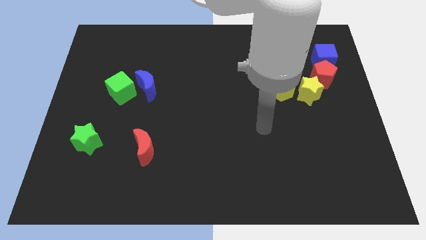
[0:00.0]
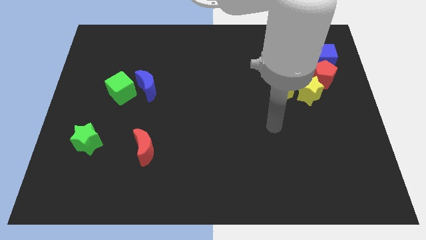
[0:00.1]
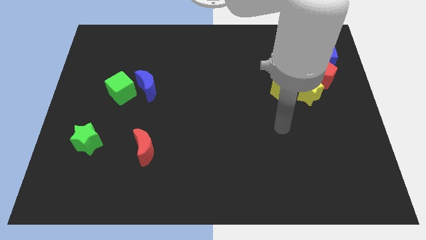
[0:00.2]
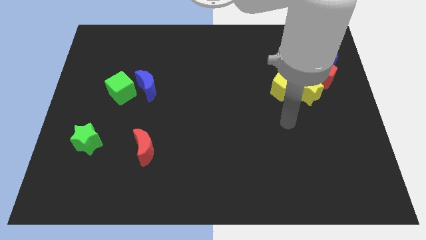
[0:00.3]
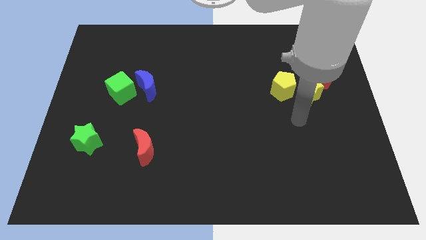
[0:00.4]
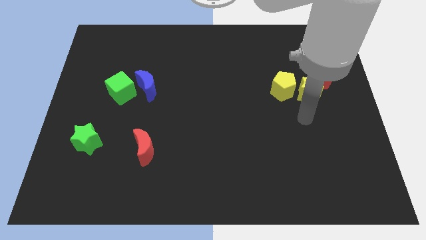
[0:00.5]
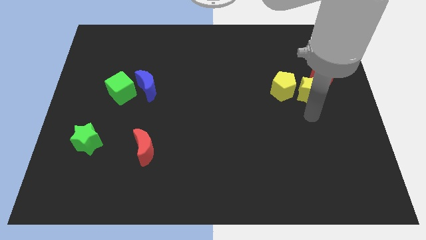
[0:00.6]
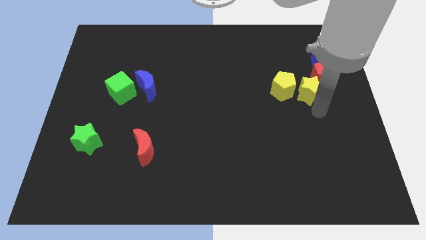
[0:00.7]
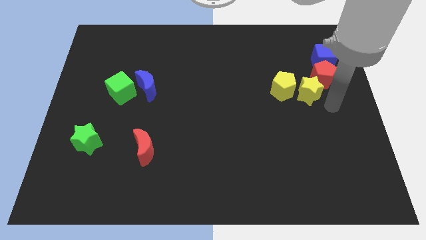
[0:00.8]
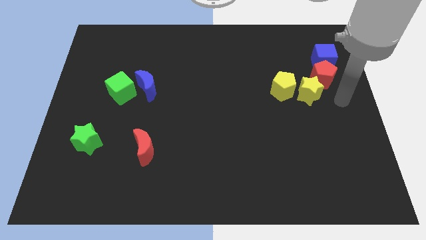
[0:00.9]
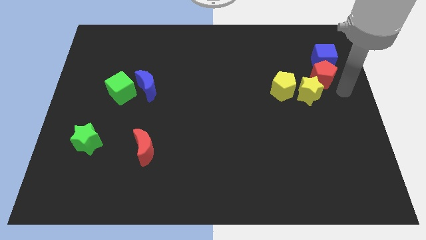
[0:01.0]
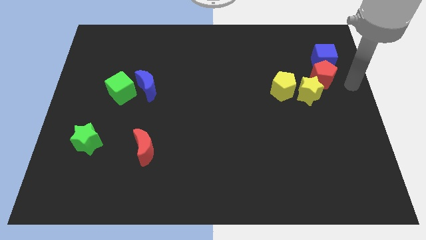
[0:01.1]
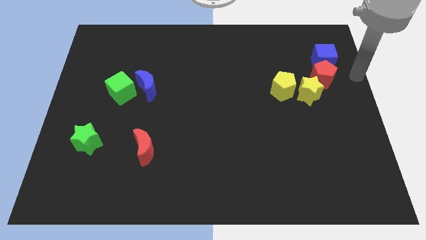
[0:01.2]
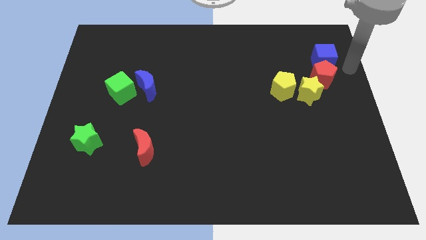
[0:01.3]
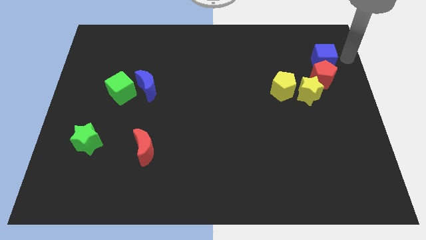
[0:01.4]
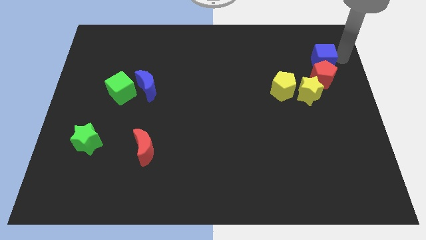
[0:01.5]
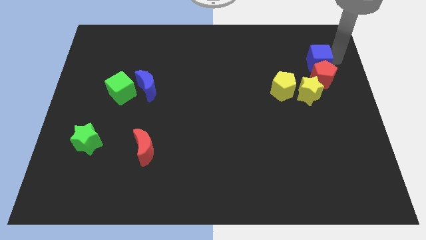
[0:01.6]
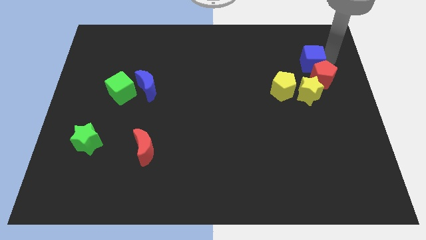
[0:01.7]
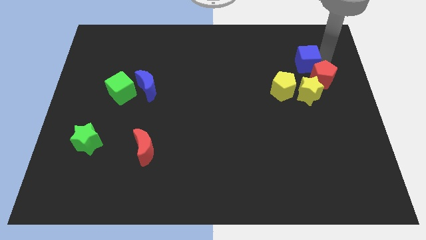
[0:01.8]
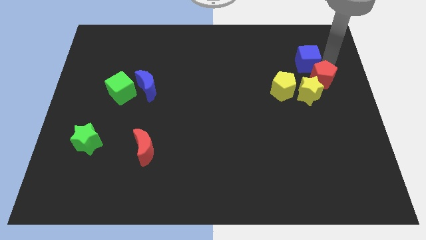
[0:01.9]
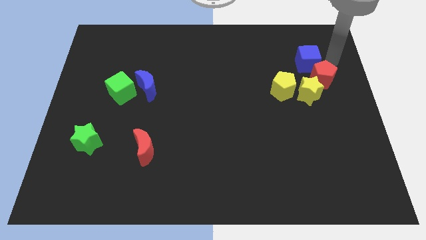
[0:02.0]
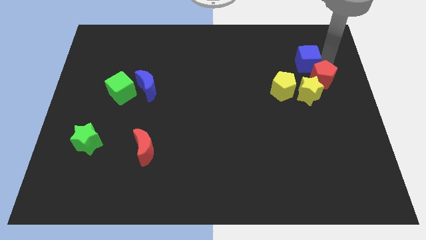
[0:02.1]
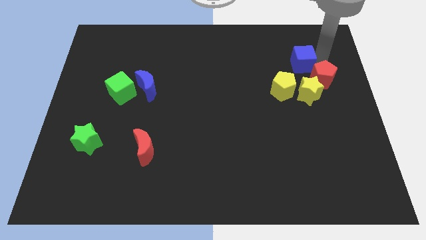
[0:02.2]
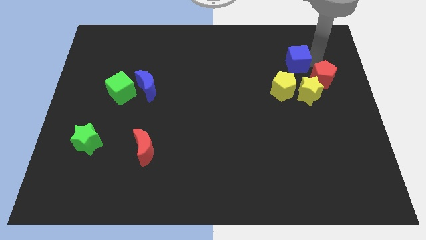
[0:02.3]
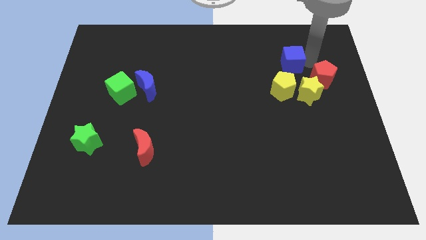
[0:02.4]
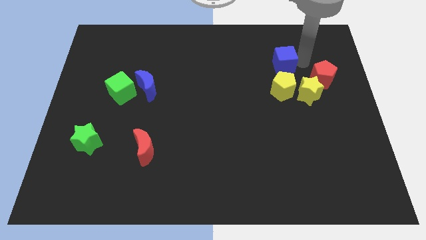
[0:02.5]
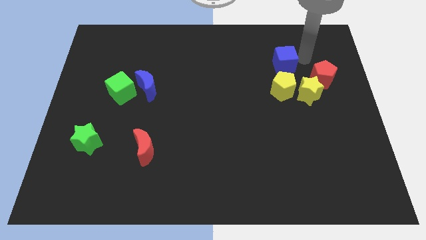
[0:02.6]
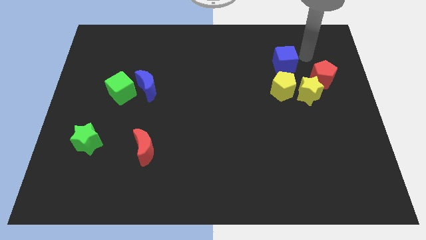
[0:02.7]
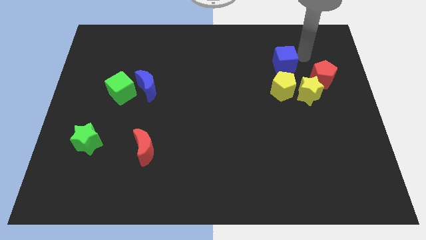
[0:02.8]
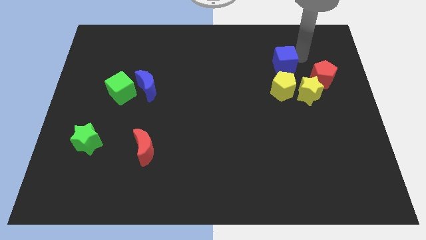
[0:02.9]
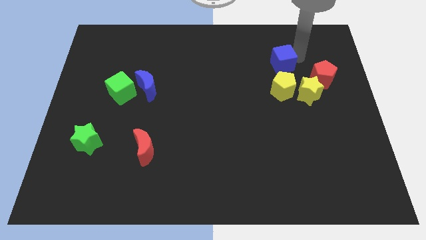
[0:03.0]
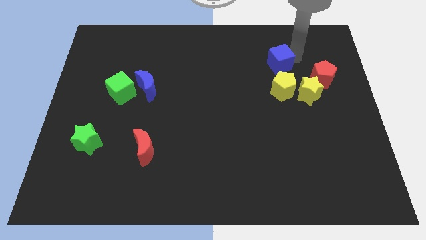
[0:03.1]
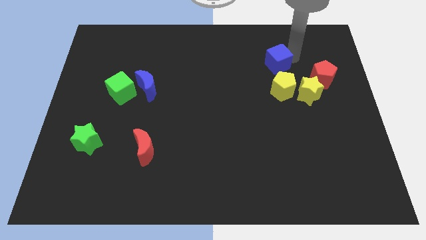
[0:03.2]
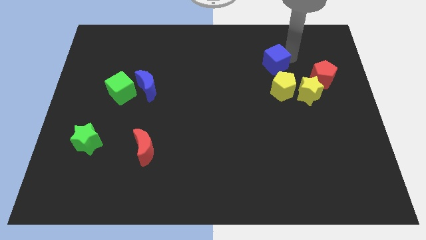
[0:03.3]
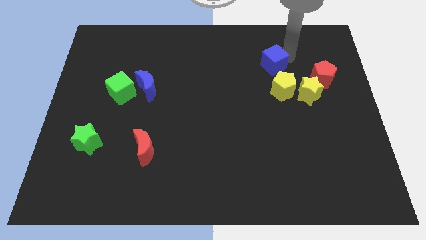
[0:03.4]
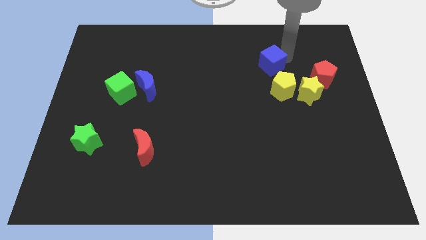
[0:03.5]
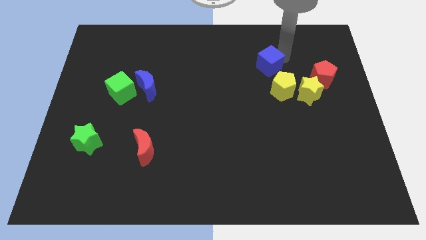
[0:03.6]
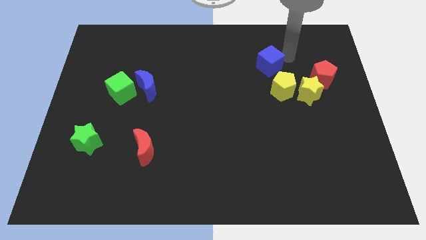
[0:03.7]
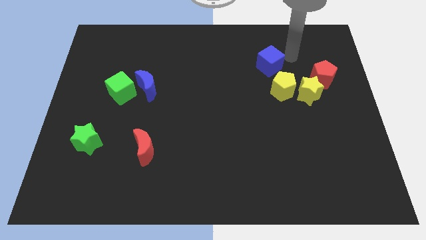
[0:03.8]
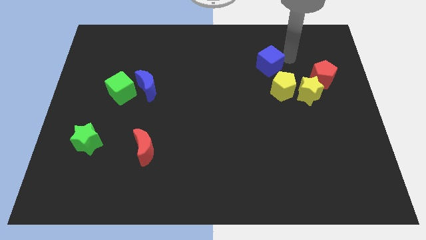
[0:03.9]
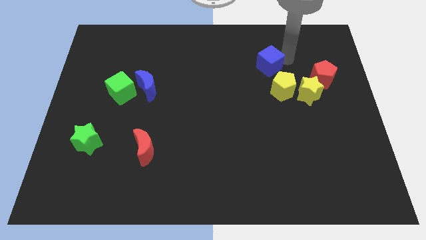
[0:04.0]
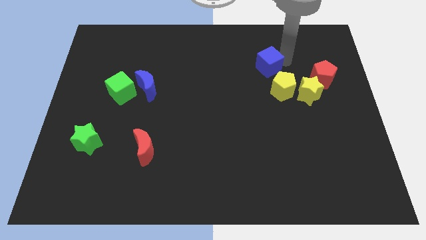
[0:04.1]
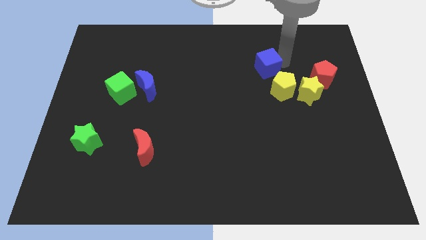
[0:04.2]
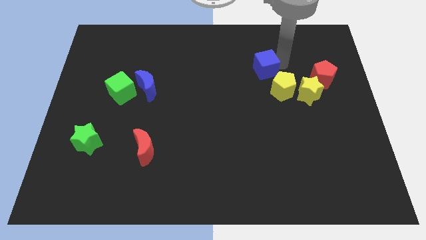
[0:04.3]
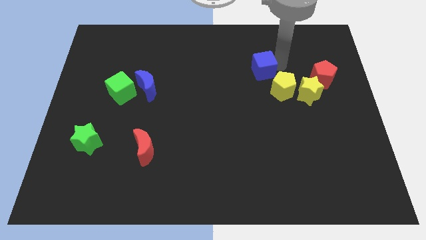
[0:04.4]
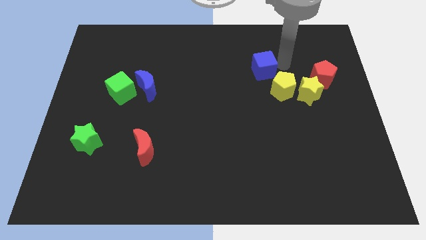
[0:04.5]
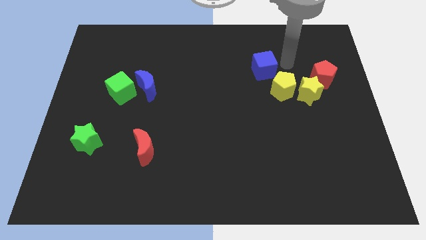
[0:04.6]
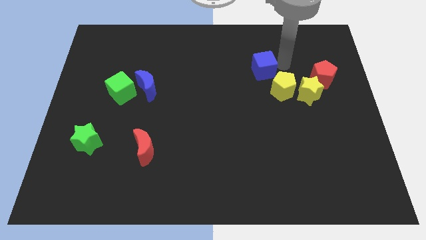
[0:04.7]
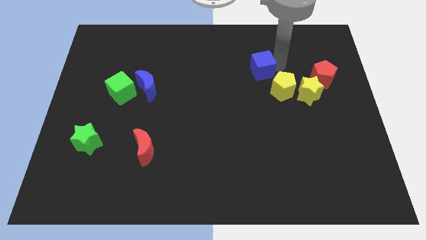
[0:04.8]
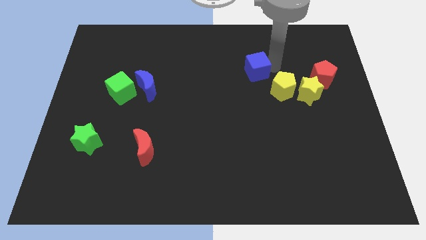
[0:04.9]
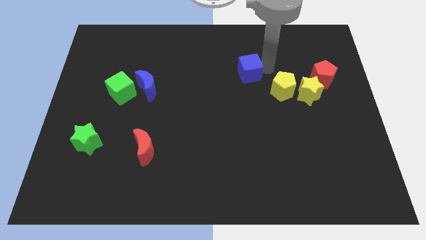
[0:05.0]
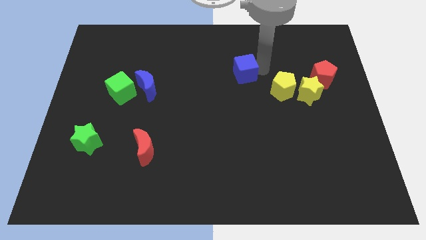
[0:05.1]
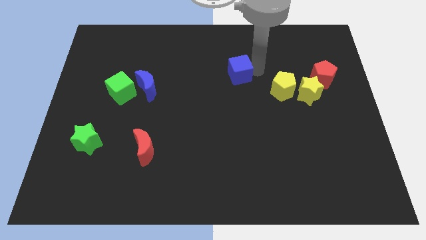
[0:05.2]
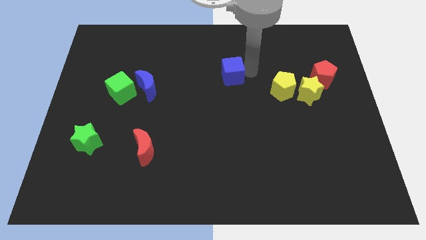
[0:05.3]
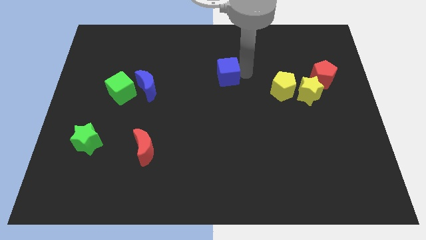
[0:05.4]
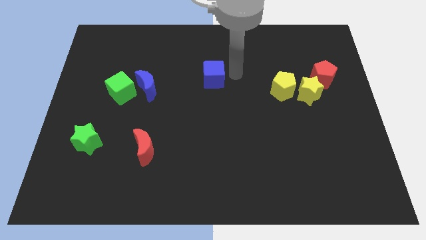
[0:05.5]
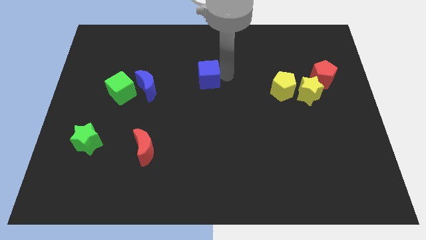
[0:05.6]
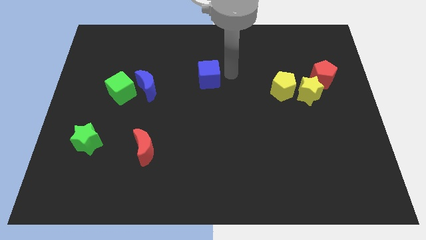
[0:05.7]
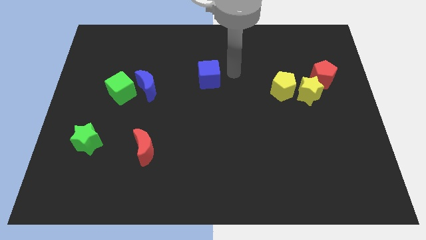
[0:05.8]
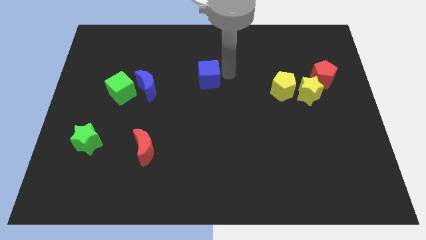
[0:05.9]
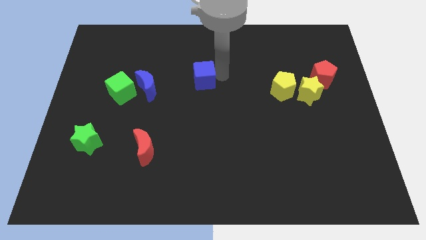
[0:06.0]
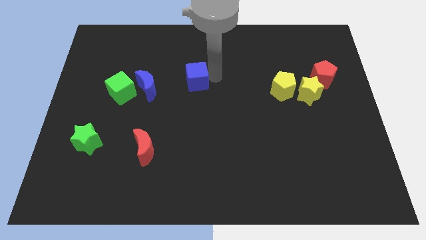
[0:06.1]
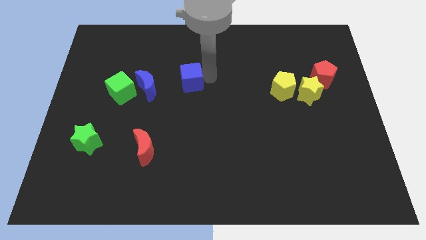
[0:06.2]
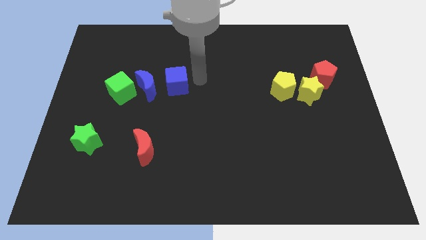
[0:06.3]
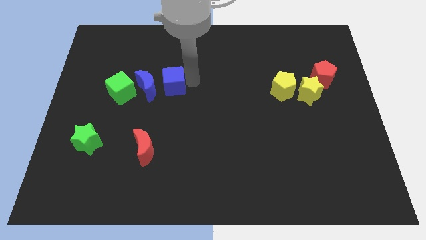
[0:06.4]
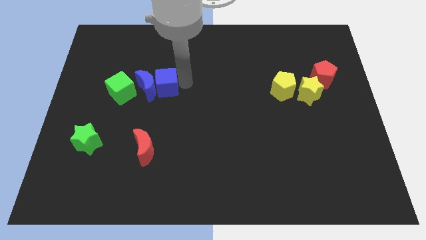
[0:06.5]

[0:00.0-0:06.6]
slide the blue cube towards the blue moon

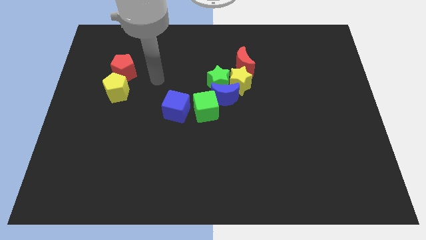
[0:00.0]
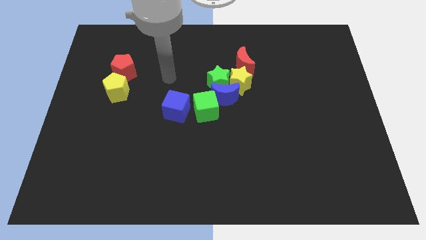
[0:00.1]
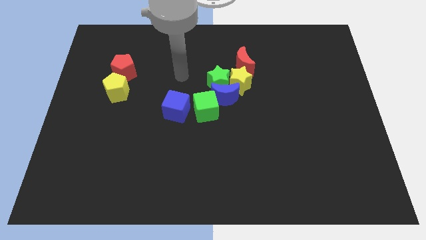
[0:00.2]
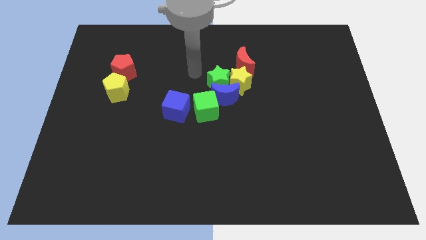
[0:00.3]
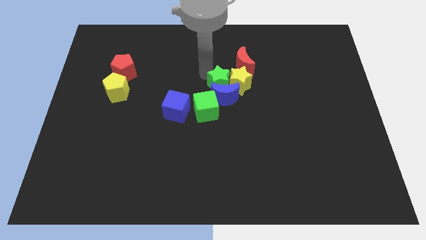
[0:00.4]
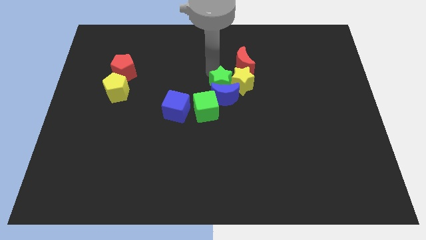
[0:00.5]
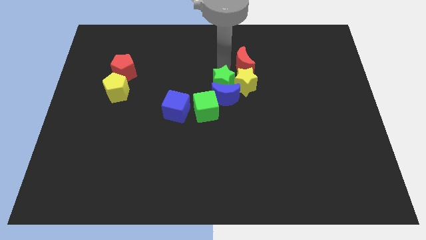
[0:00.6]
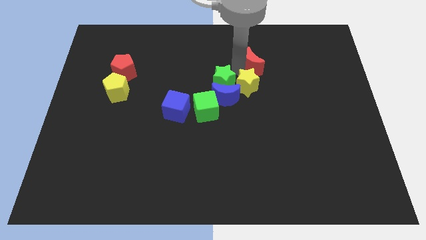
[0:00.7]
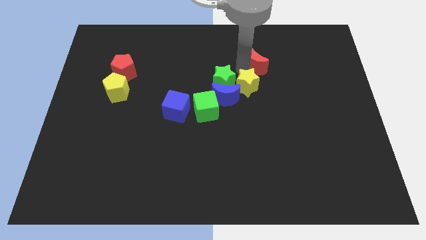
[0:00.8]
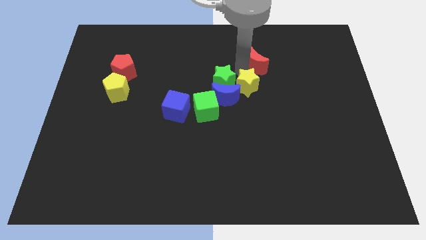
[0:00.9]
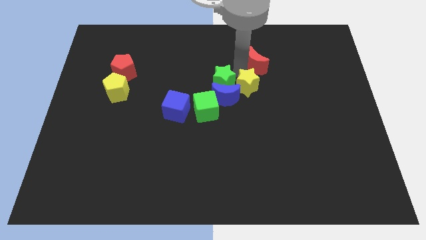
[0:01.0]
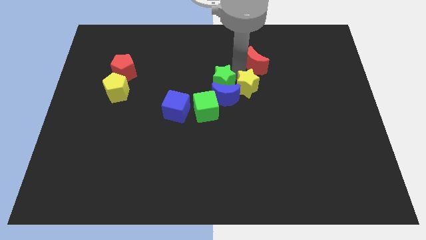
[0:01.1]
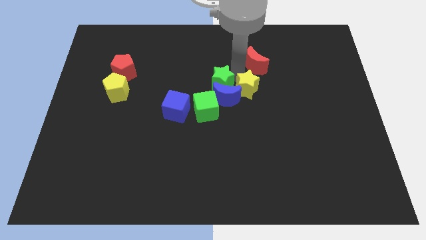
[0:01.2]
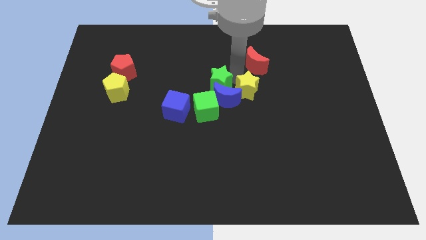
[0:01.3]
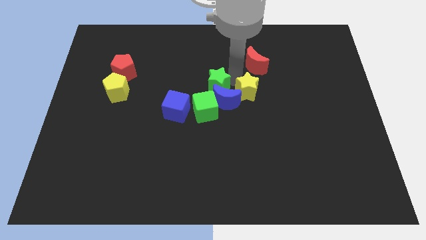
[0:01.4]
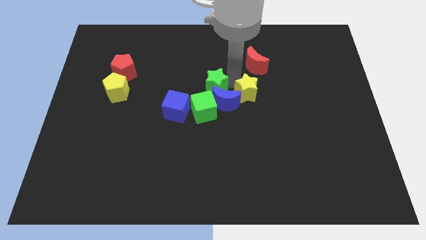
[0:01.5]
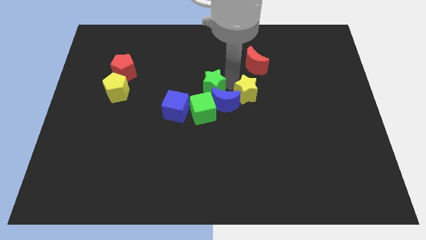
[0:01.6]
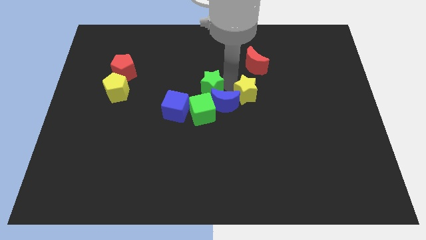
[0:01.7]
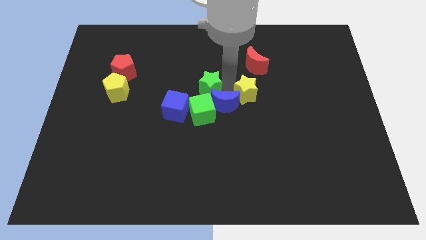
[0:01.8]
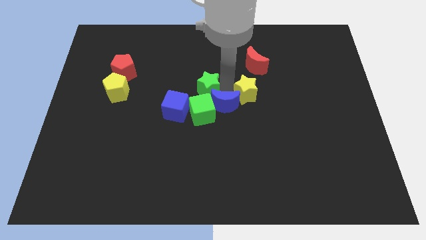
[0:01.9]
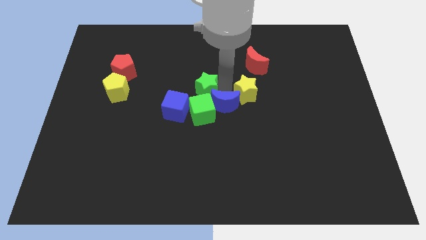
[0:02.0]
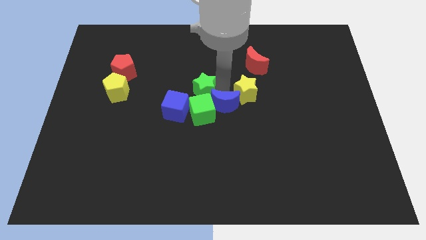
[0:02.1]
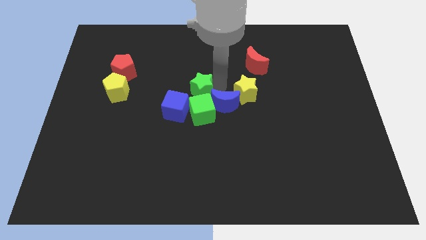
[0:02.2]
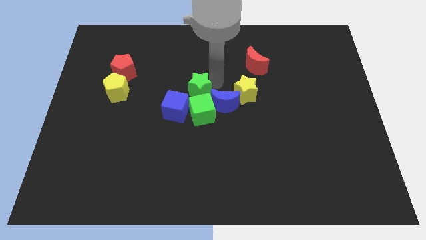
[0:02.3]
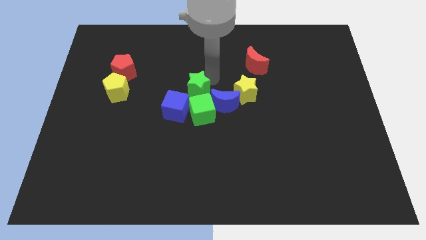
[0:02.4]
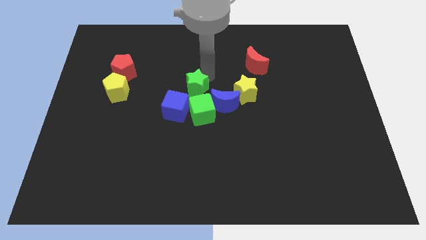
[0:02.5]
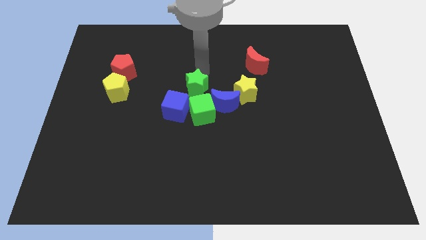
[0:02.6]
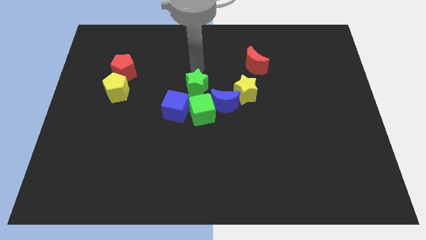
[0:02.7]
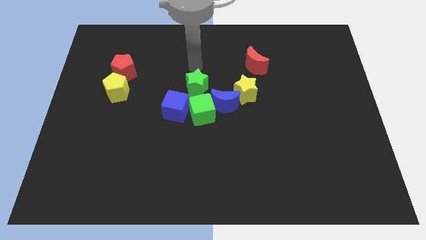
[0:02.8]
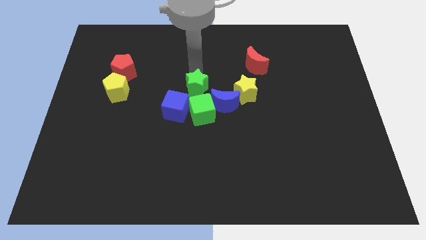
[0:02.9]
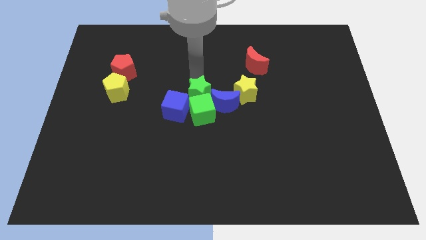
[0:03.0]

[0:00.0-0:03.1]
slide the green star towards the green cube
